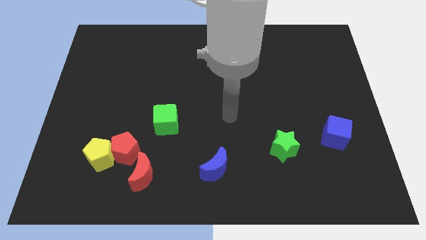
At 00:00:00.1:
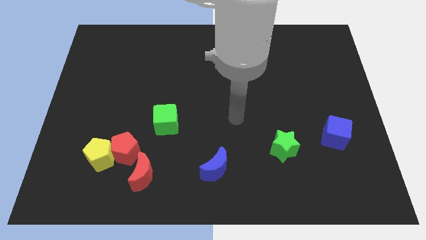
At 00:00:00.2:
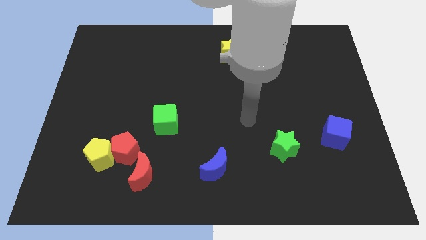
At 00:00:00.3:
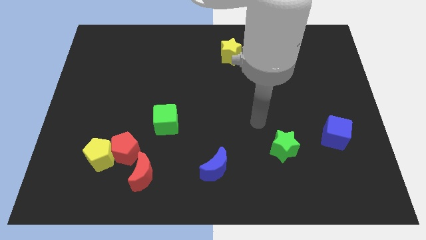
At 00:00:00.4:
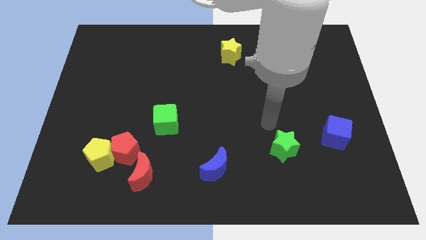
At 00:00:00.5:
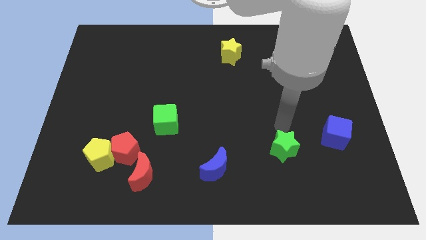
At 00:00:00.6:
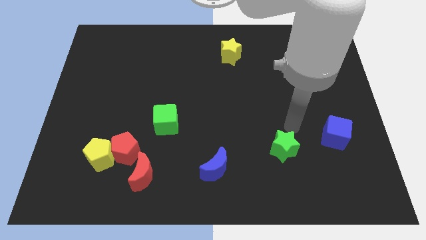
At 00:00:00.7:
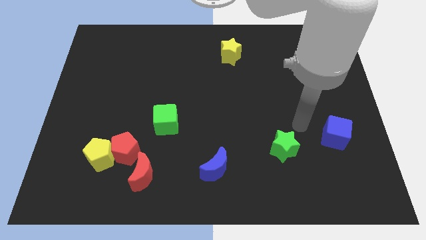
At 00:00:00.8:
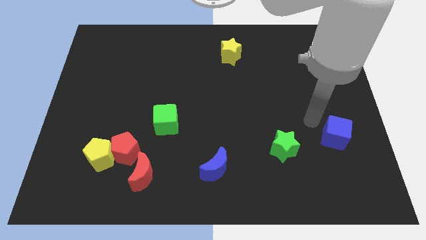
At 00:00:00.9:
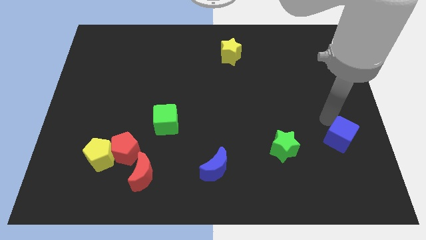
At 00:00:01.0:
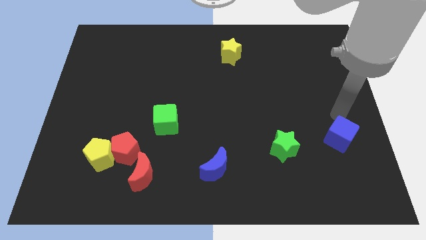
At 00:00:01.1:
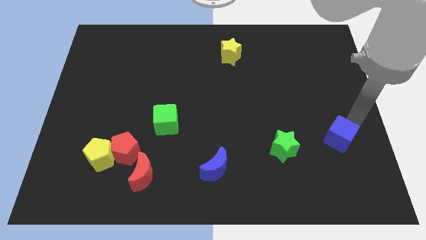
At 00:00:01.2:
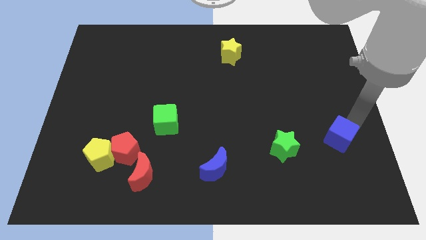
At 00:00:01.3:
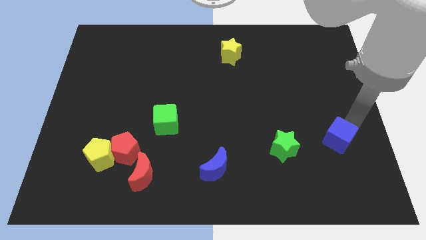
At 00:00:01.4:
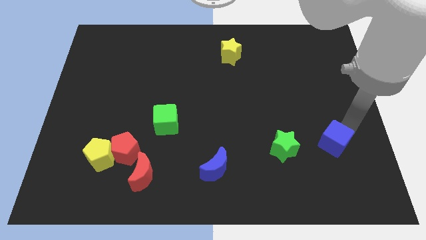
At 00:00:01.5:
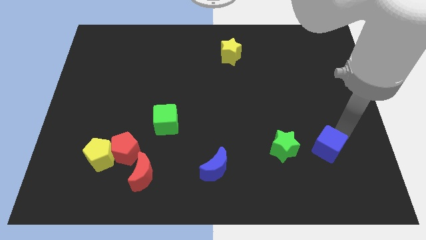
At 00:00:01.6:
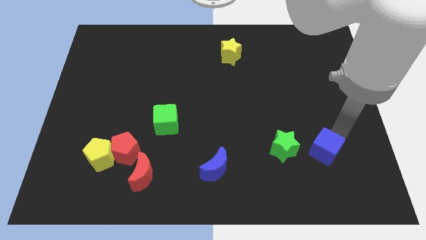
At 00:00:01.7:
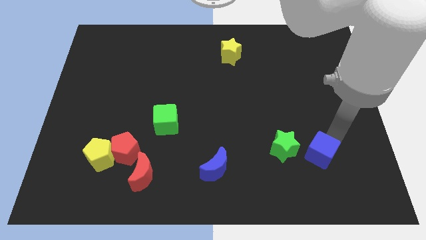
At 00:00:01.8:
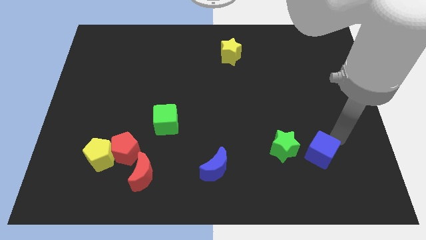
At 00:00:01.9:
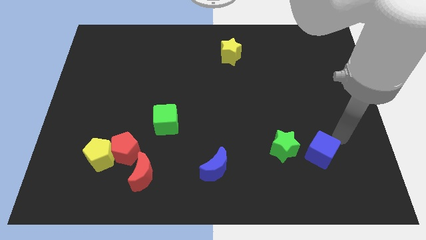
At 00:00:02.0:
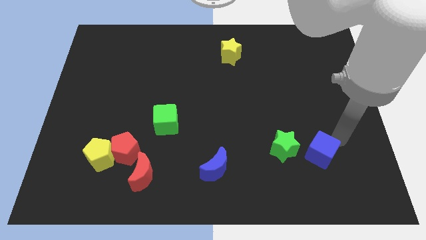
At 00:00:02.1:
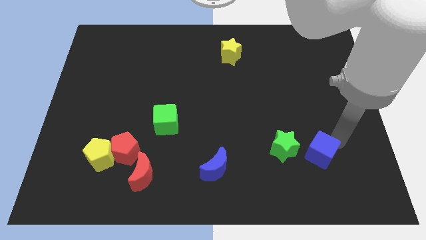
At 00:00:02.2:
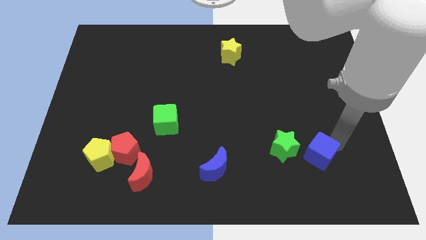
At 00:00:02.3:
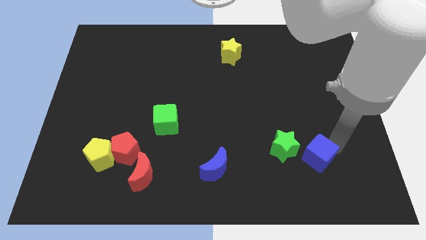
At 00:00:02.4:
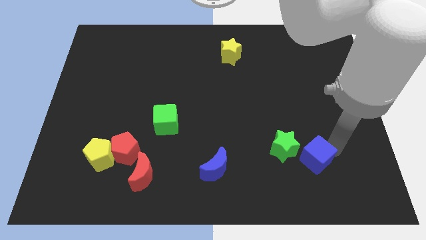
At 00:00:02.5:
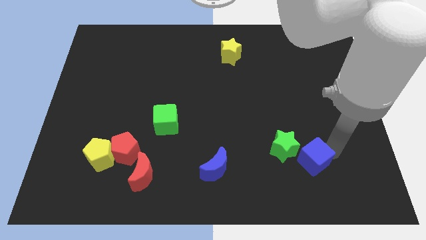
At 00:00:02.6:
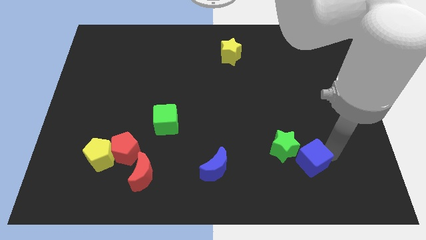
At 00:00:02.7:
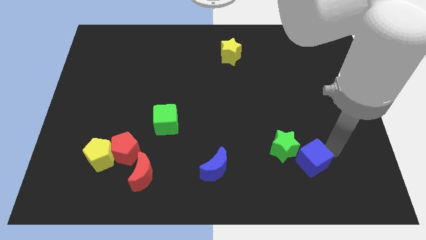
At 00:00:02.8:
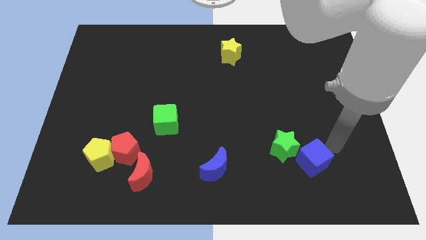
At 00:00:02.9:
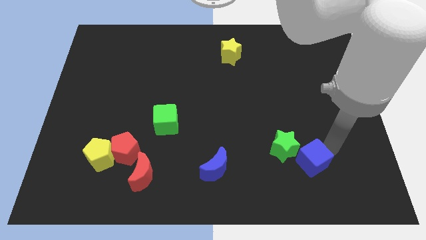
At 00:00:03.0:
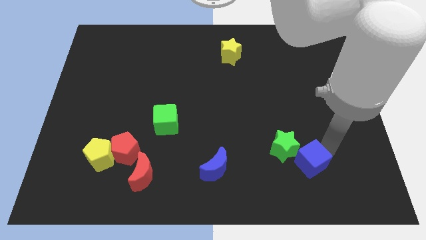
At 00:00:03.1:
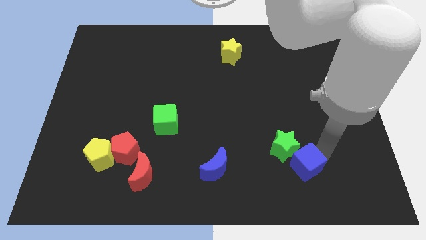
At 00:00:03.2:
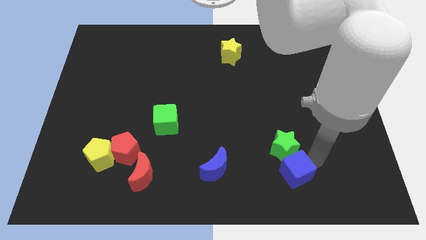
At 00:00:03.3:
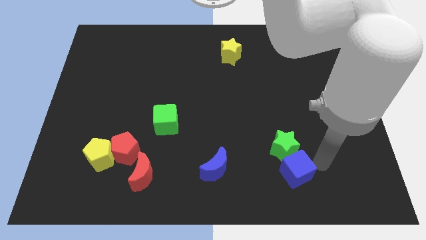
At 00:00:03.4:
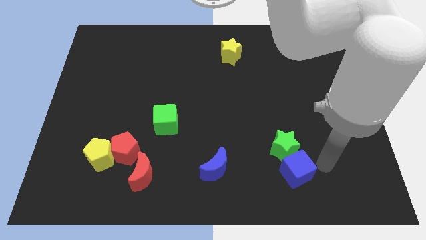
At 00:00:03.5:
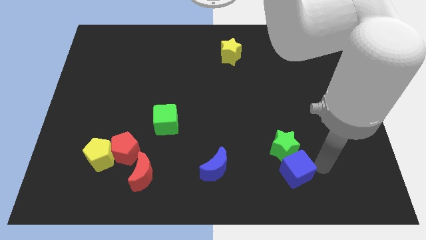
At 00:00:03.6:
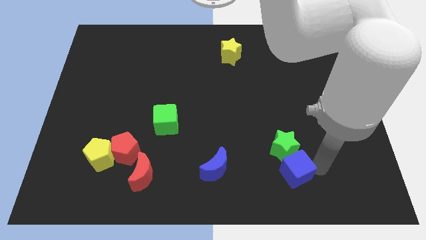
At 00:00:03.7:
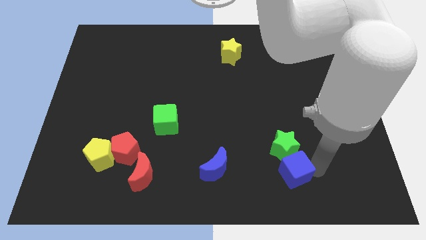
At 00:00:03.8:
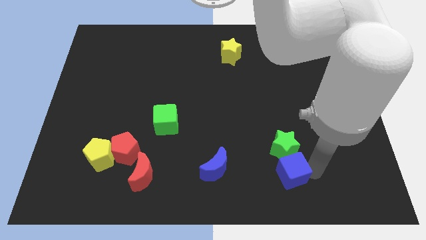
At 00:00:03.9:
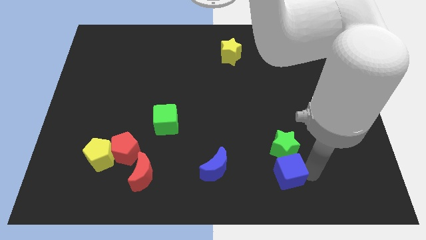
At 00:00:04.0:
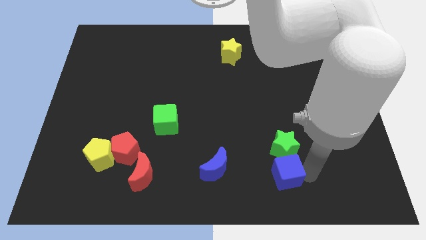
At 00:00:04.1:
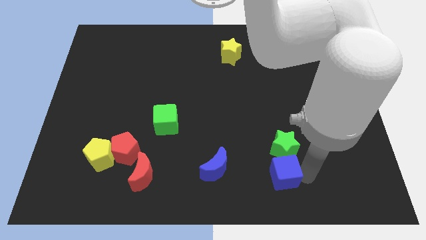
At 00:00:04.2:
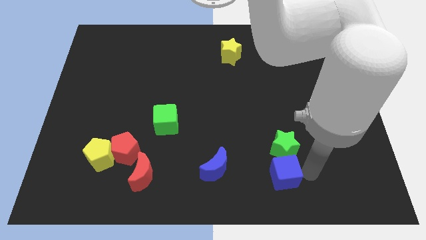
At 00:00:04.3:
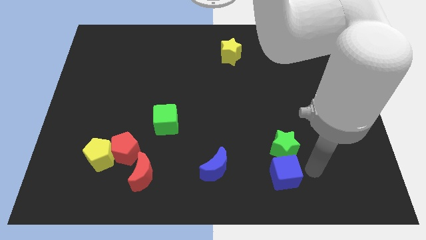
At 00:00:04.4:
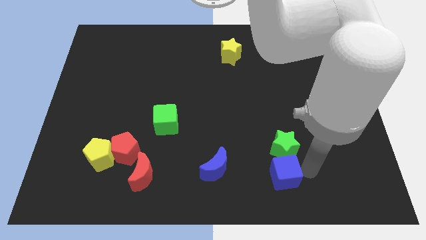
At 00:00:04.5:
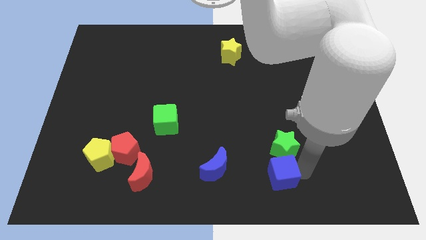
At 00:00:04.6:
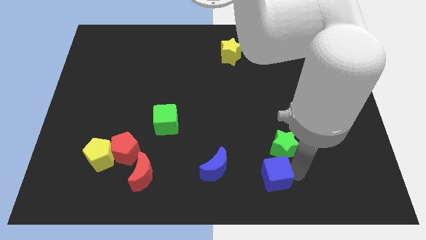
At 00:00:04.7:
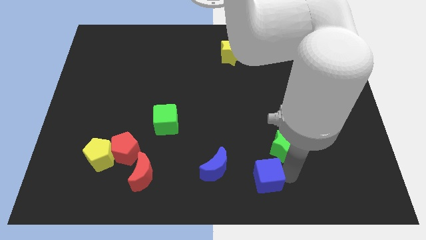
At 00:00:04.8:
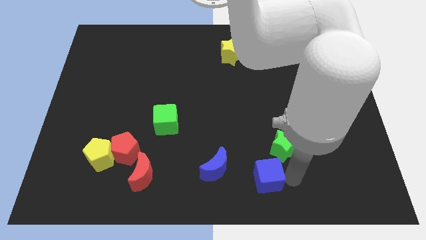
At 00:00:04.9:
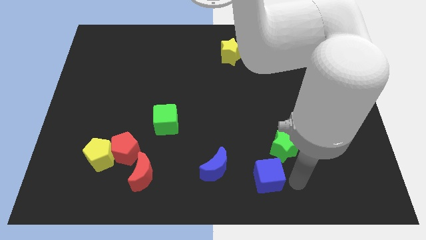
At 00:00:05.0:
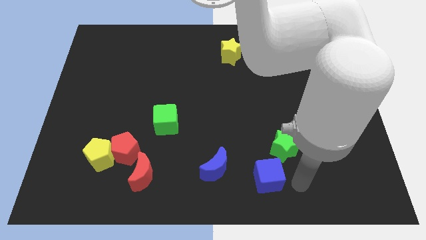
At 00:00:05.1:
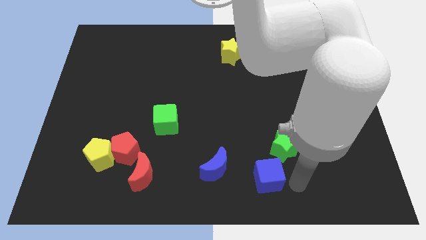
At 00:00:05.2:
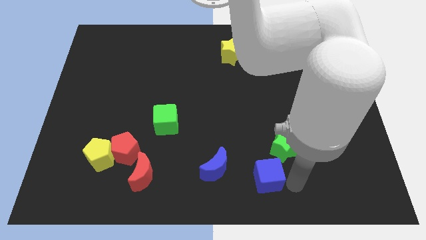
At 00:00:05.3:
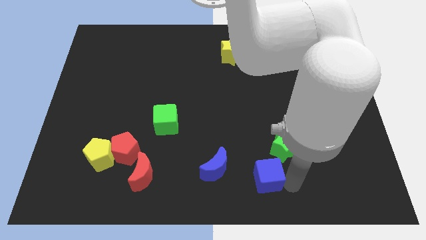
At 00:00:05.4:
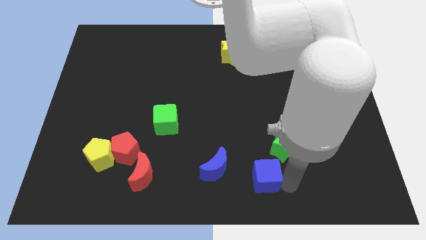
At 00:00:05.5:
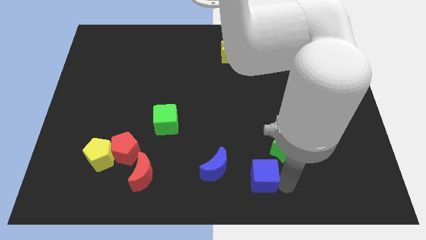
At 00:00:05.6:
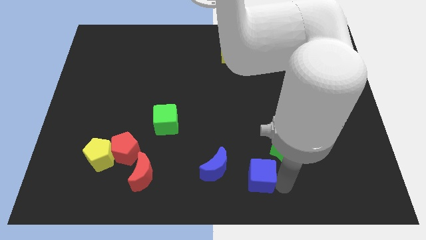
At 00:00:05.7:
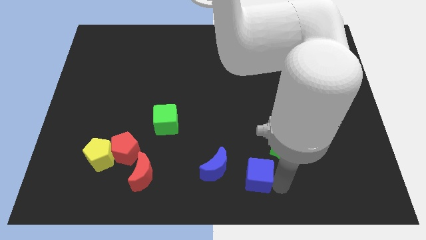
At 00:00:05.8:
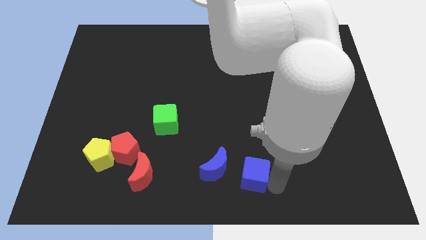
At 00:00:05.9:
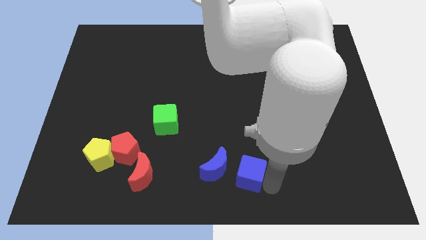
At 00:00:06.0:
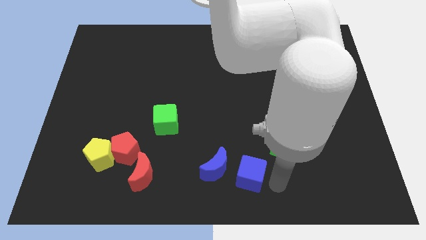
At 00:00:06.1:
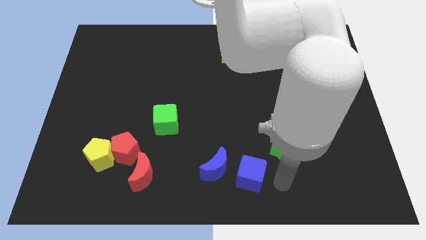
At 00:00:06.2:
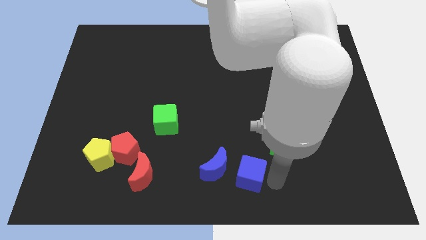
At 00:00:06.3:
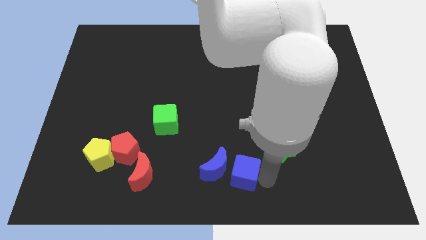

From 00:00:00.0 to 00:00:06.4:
slide the blue cube next to the blue moon

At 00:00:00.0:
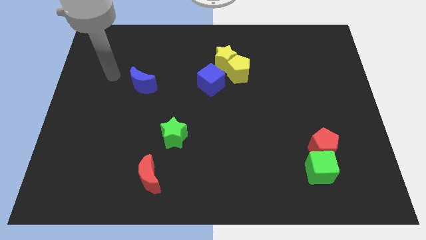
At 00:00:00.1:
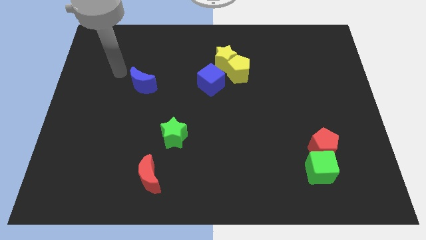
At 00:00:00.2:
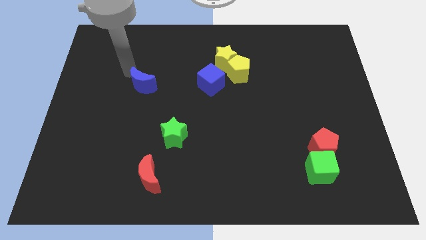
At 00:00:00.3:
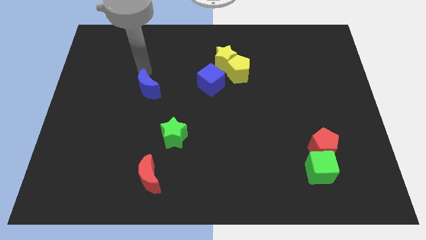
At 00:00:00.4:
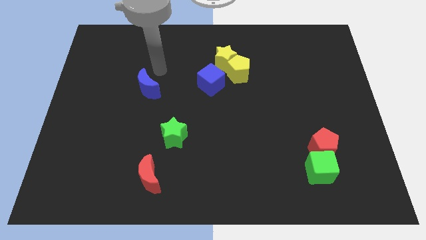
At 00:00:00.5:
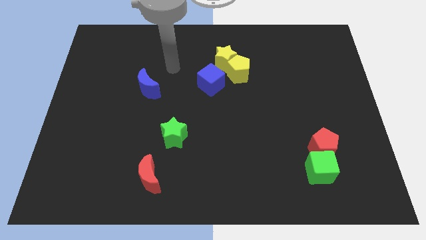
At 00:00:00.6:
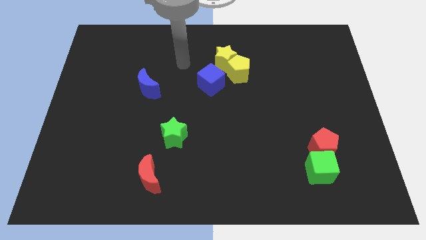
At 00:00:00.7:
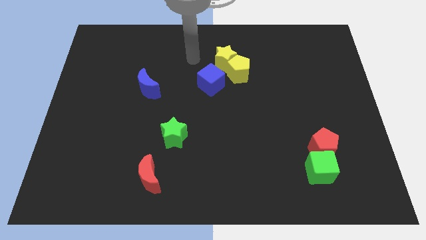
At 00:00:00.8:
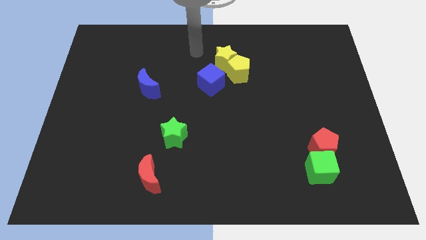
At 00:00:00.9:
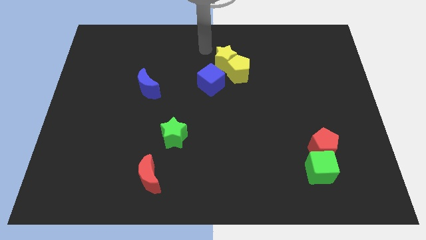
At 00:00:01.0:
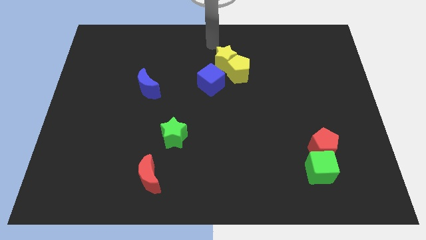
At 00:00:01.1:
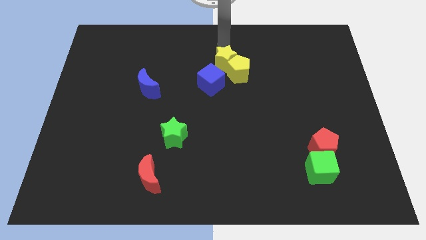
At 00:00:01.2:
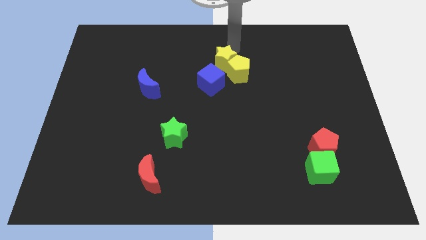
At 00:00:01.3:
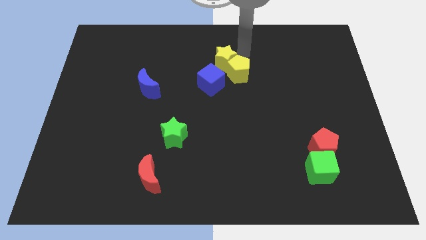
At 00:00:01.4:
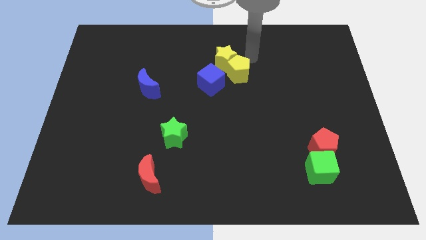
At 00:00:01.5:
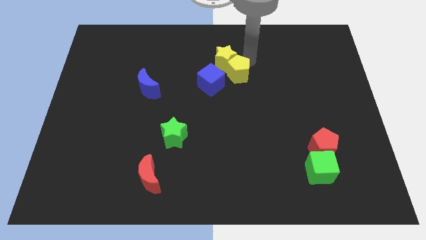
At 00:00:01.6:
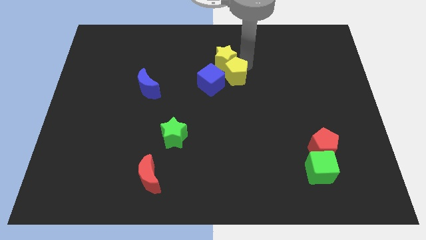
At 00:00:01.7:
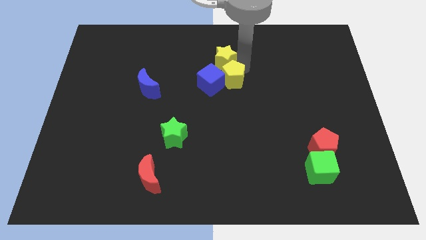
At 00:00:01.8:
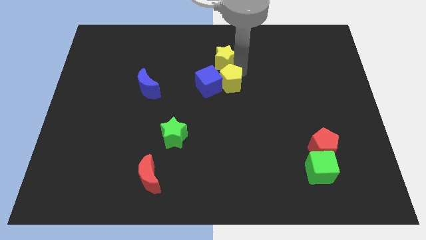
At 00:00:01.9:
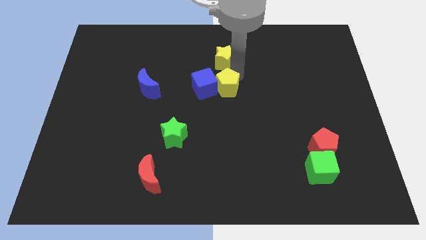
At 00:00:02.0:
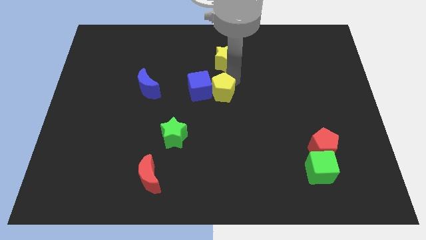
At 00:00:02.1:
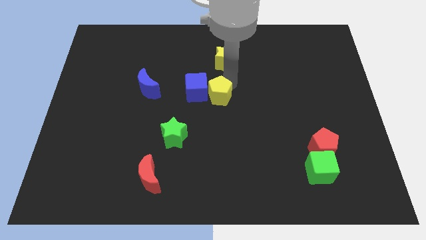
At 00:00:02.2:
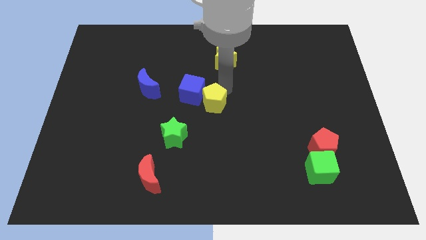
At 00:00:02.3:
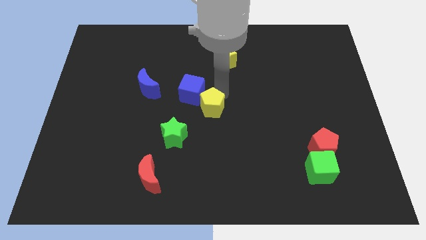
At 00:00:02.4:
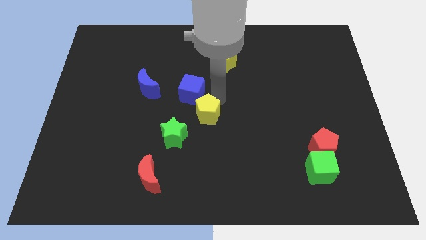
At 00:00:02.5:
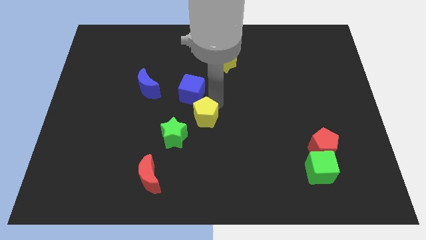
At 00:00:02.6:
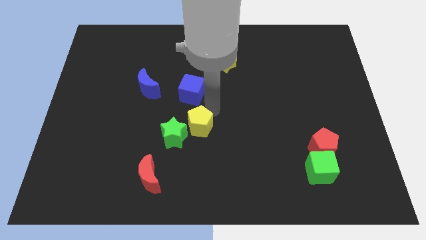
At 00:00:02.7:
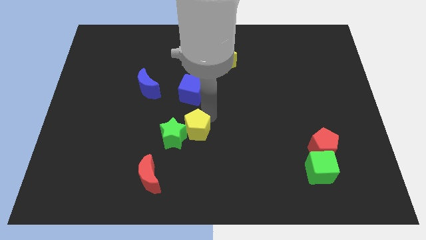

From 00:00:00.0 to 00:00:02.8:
slide the yellow pentagon close to the green star
